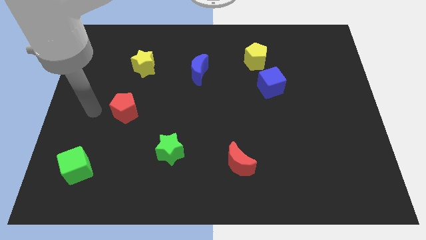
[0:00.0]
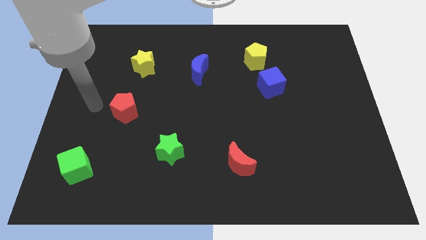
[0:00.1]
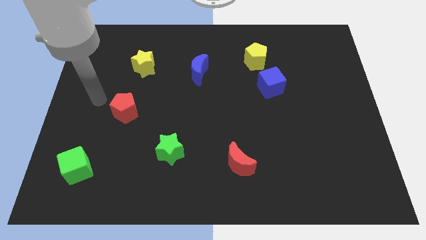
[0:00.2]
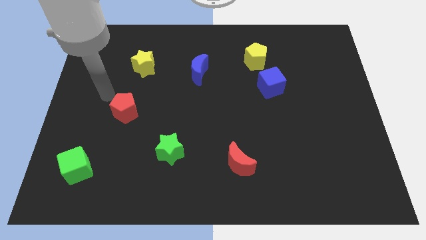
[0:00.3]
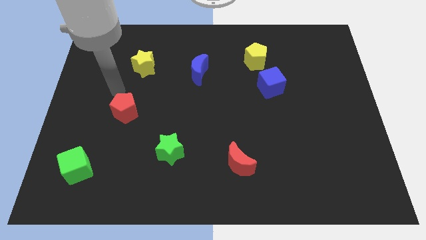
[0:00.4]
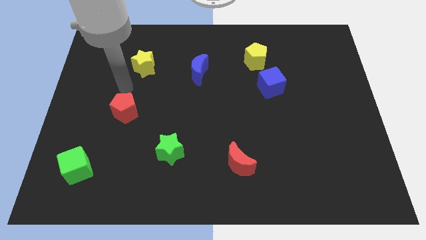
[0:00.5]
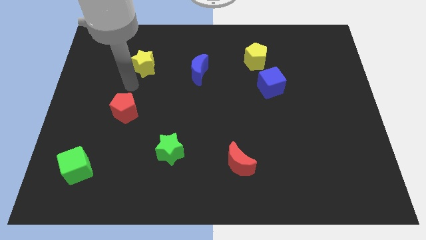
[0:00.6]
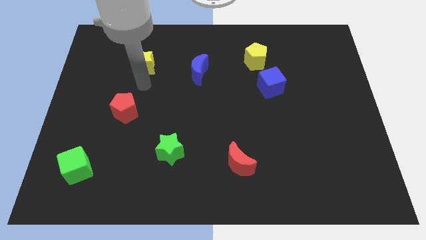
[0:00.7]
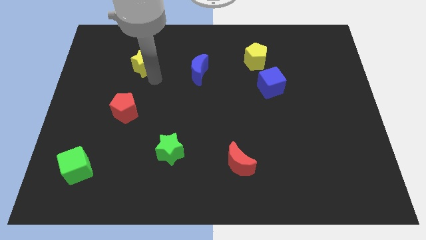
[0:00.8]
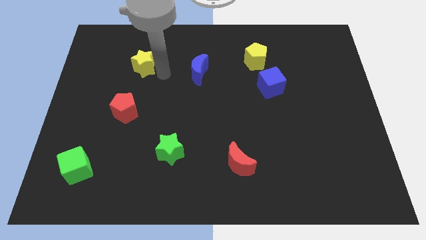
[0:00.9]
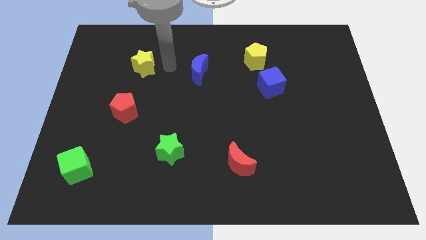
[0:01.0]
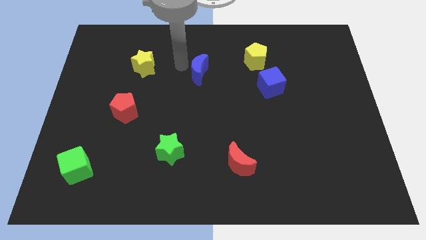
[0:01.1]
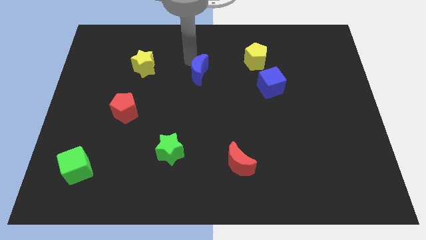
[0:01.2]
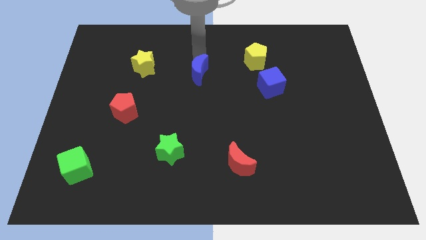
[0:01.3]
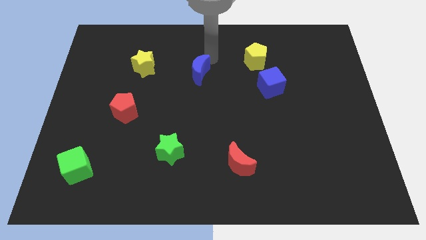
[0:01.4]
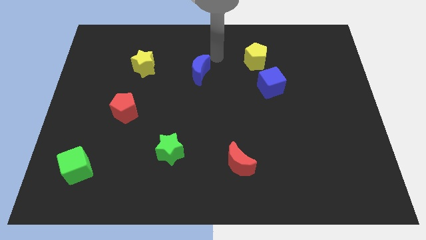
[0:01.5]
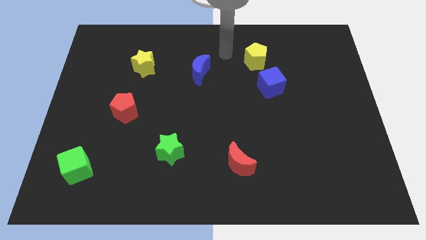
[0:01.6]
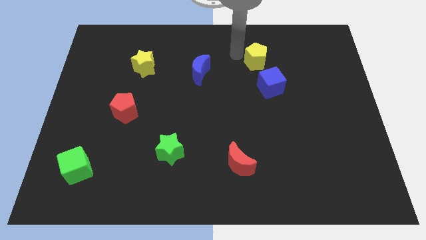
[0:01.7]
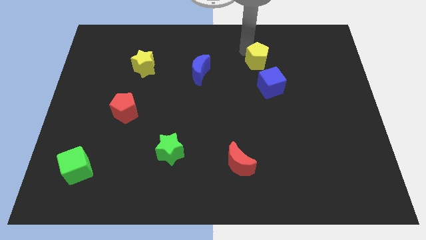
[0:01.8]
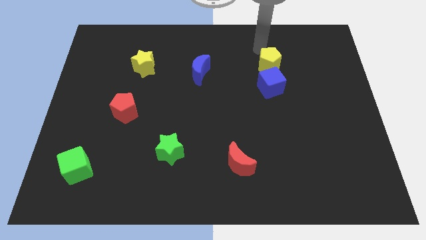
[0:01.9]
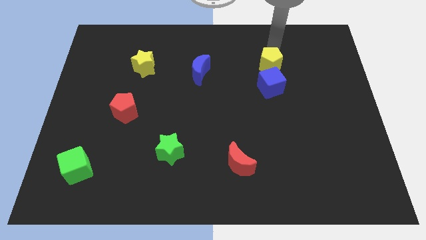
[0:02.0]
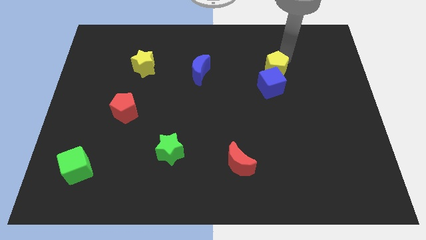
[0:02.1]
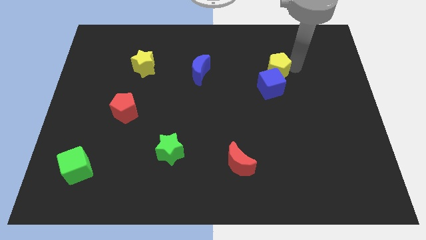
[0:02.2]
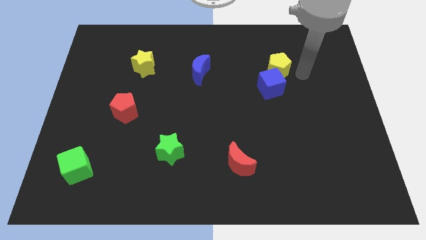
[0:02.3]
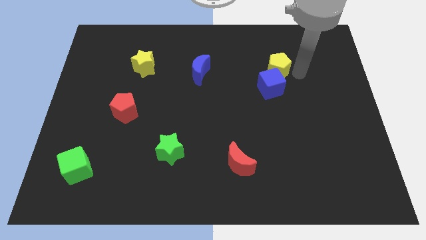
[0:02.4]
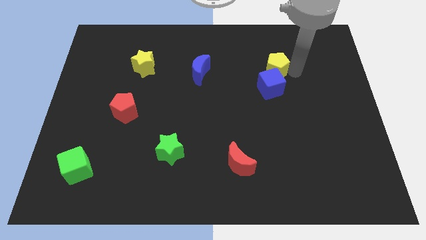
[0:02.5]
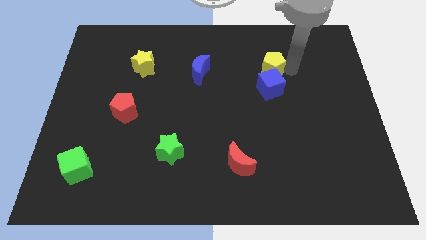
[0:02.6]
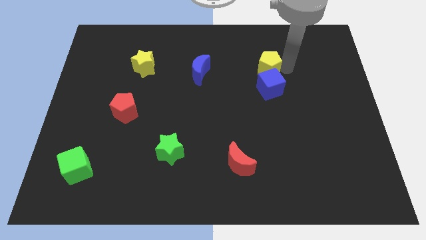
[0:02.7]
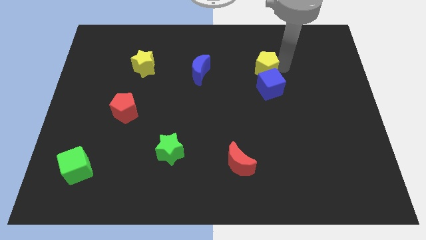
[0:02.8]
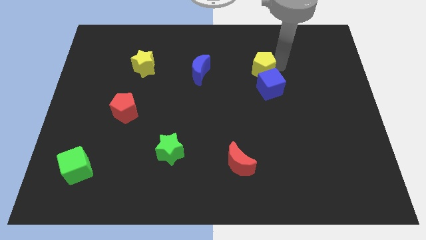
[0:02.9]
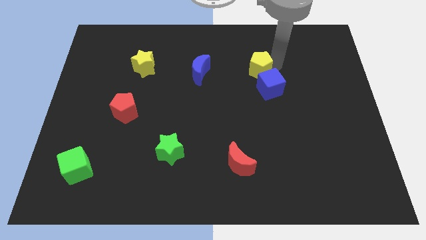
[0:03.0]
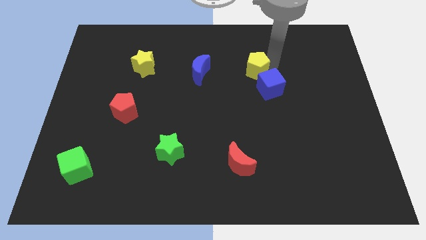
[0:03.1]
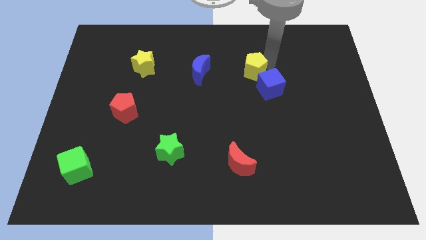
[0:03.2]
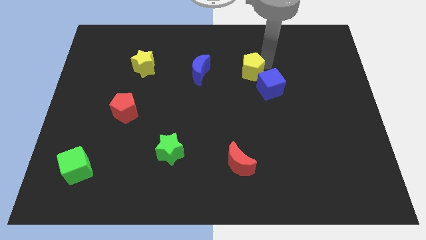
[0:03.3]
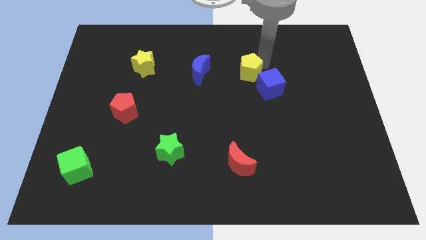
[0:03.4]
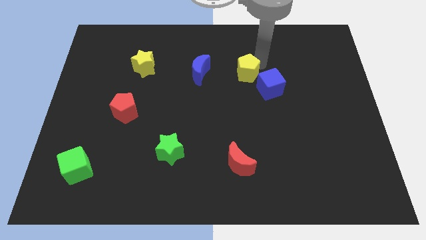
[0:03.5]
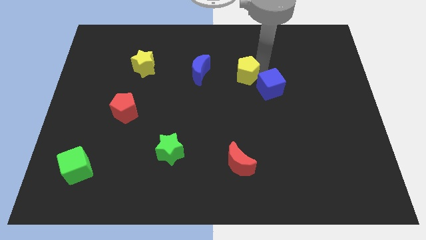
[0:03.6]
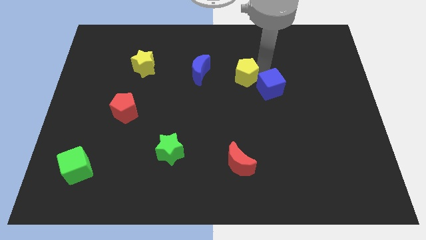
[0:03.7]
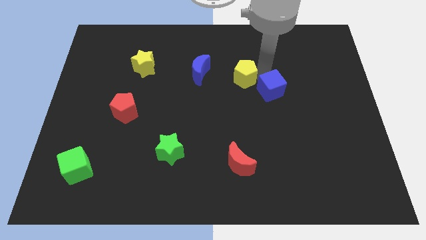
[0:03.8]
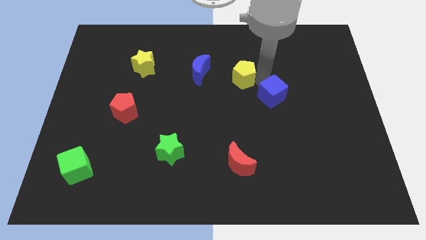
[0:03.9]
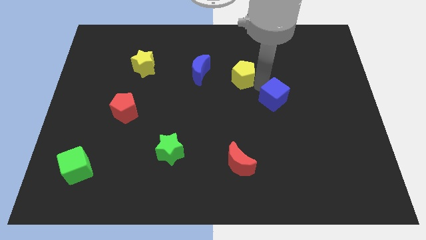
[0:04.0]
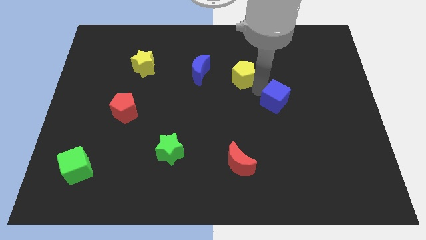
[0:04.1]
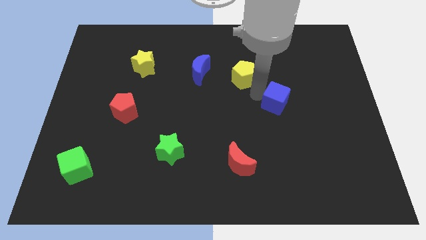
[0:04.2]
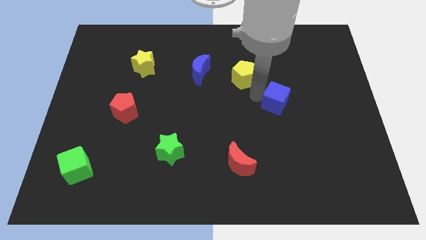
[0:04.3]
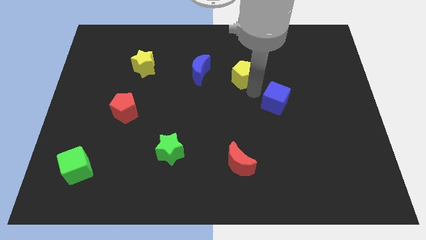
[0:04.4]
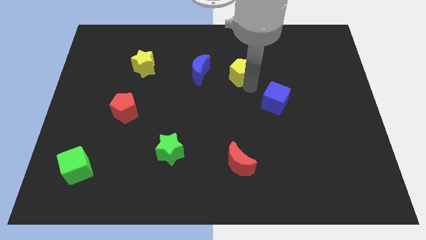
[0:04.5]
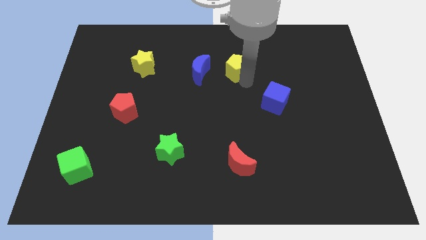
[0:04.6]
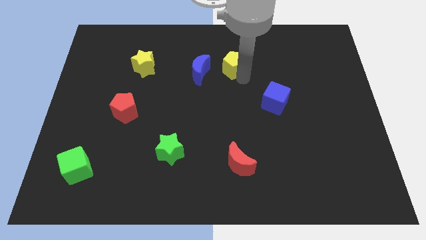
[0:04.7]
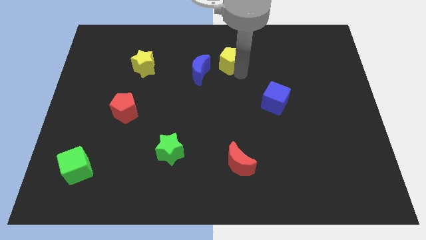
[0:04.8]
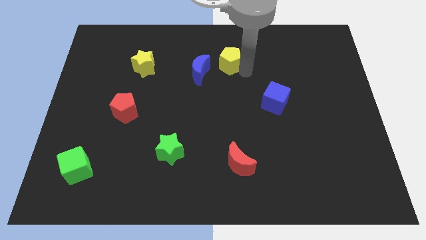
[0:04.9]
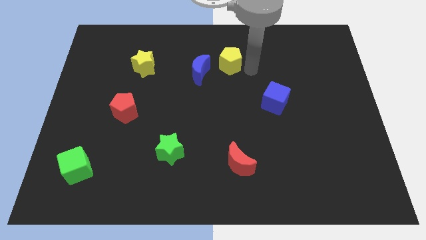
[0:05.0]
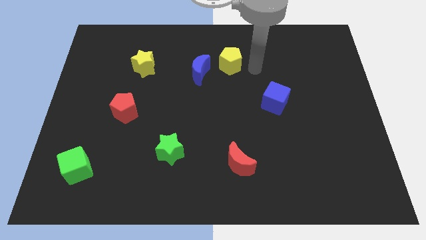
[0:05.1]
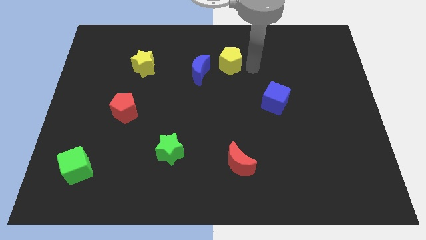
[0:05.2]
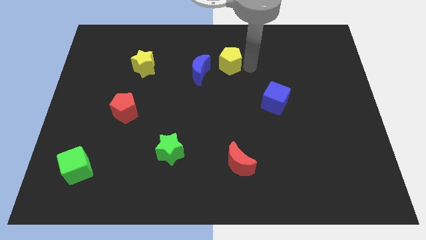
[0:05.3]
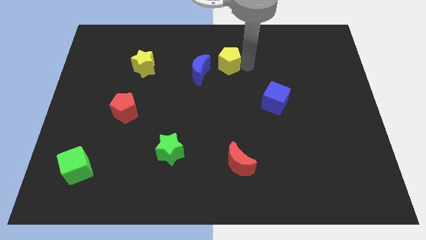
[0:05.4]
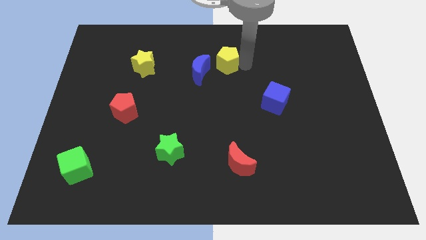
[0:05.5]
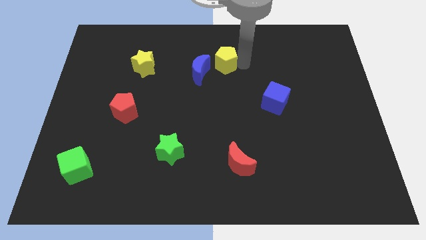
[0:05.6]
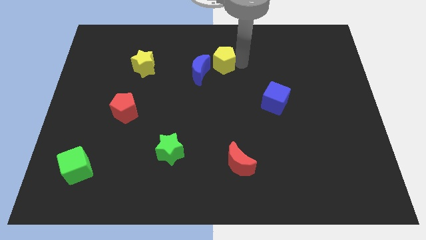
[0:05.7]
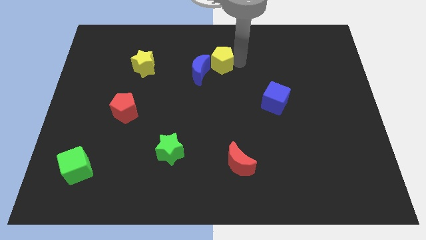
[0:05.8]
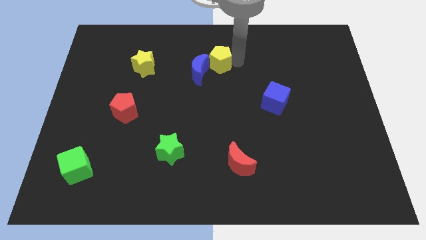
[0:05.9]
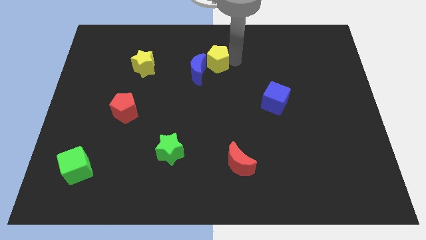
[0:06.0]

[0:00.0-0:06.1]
slide the yellow pentagon close to the blue moon

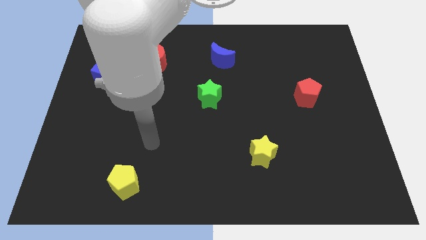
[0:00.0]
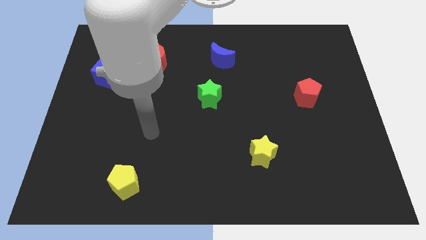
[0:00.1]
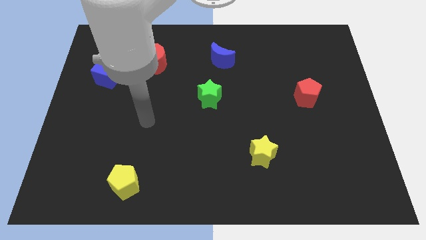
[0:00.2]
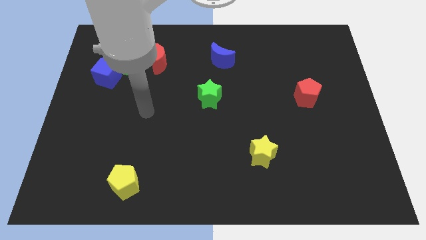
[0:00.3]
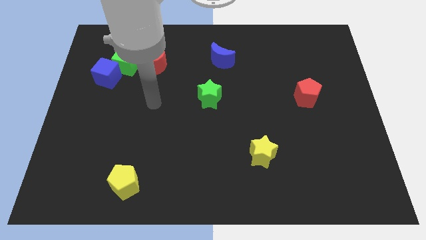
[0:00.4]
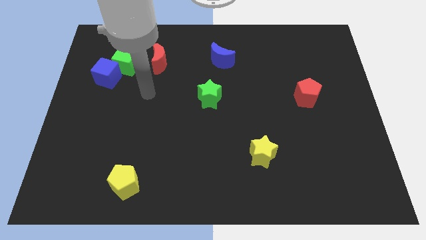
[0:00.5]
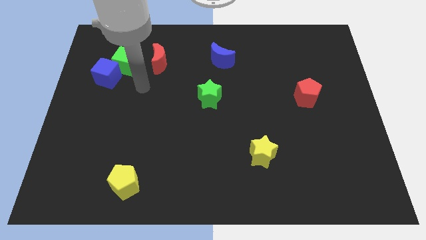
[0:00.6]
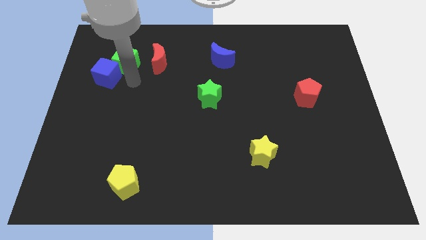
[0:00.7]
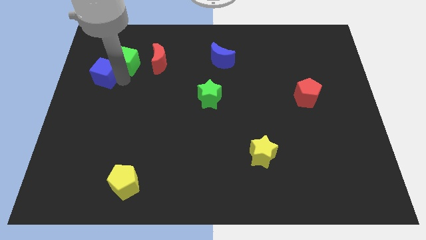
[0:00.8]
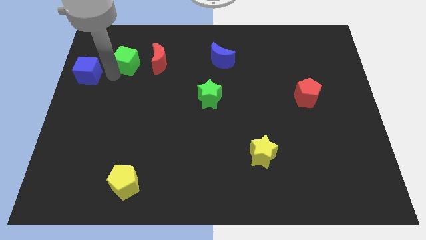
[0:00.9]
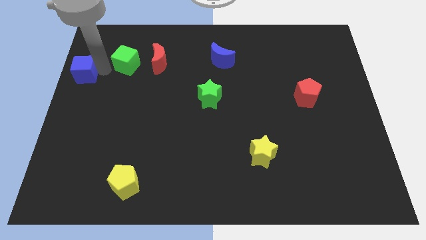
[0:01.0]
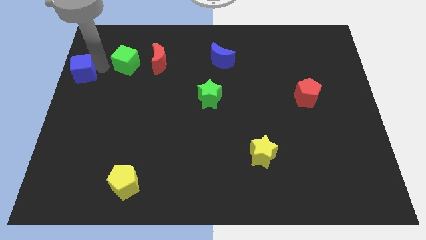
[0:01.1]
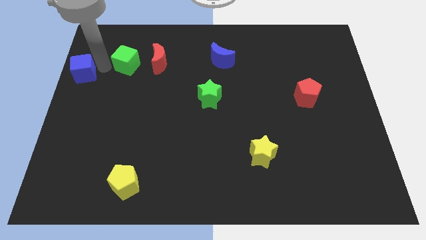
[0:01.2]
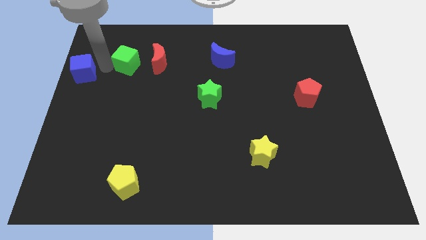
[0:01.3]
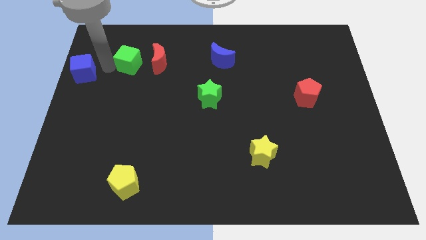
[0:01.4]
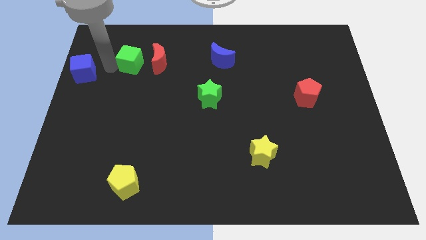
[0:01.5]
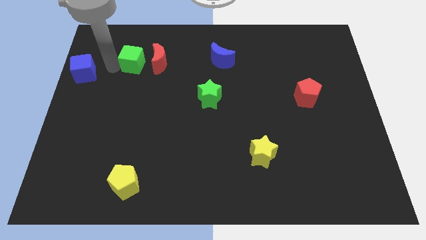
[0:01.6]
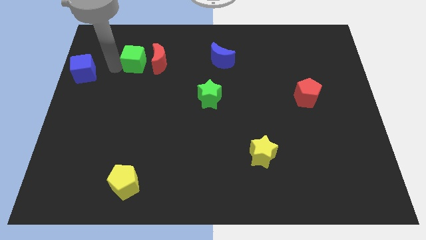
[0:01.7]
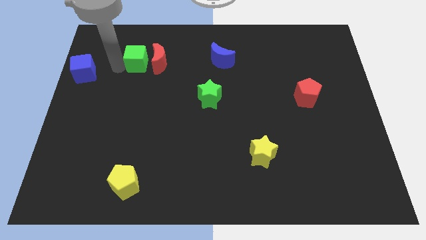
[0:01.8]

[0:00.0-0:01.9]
put the green cube close to the red moon
